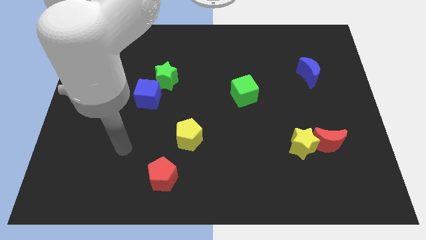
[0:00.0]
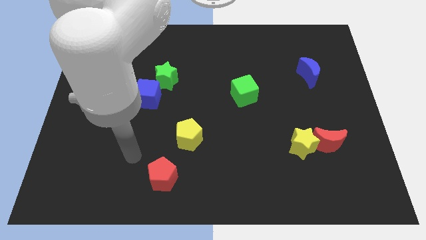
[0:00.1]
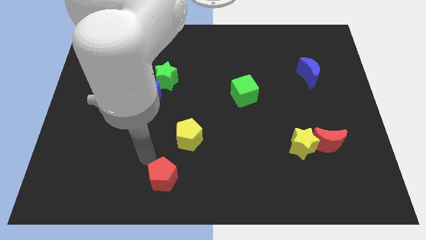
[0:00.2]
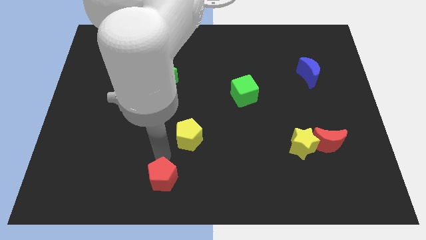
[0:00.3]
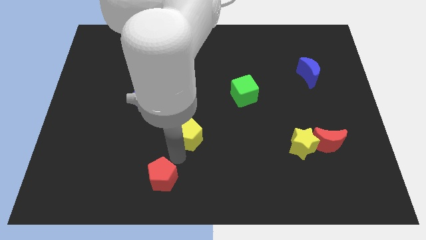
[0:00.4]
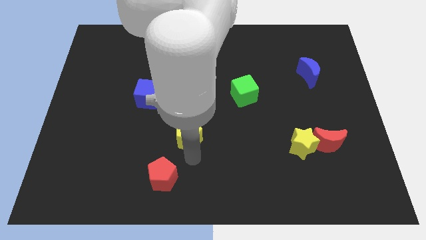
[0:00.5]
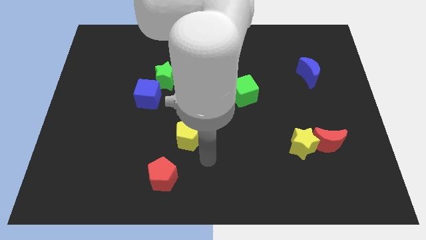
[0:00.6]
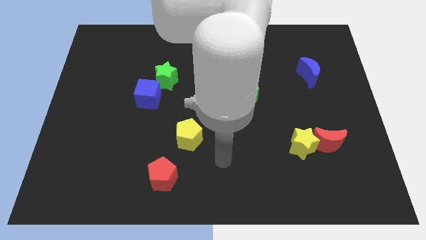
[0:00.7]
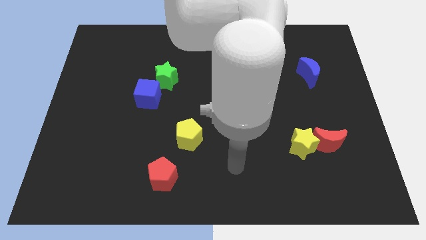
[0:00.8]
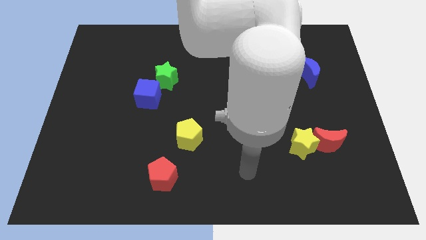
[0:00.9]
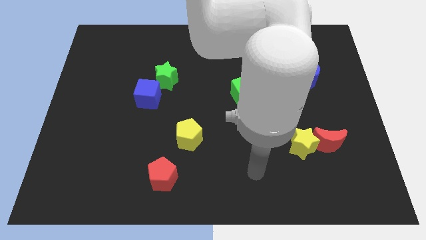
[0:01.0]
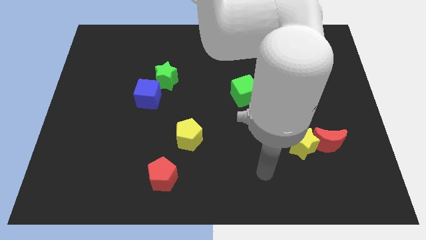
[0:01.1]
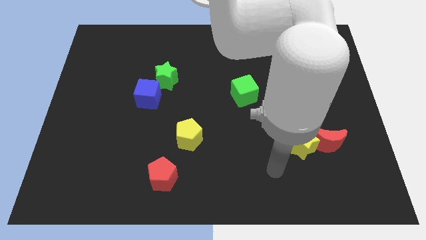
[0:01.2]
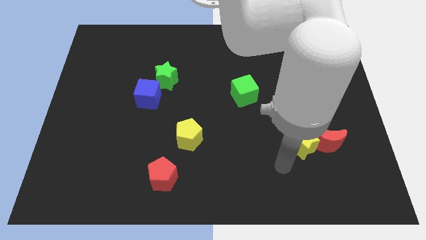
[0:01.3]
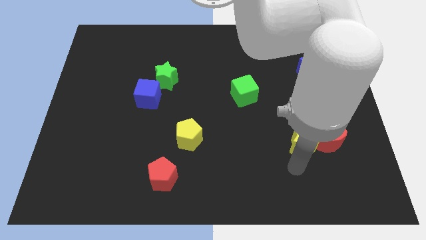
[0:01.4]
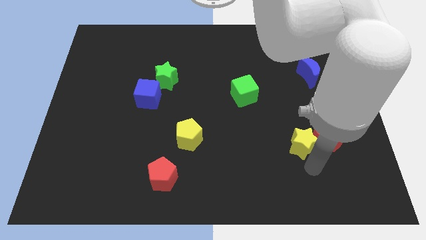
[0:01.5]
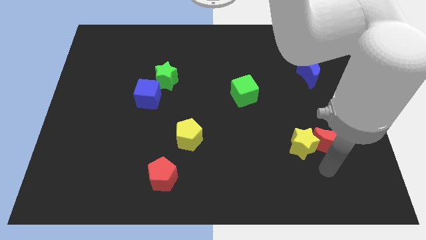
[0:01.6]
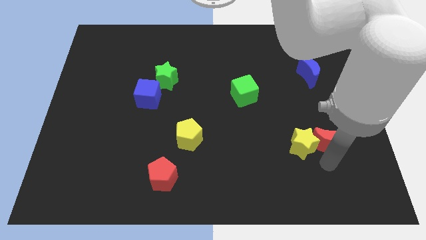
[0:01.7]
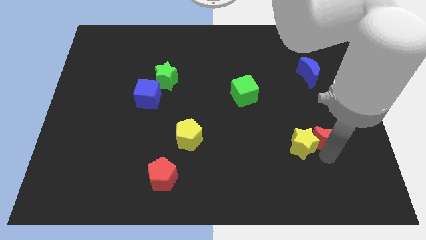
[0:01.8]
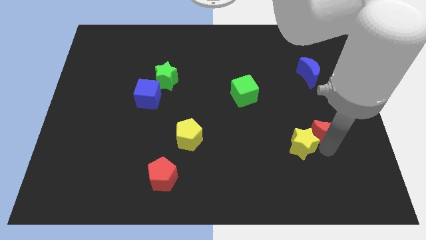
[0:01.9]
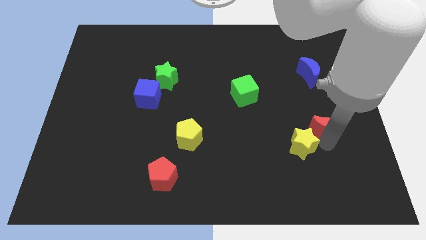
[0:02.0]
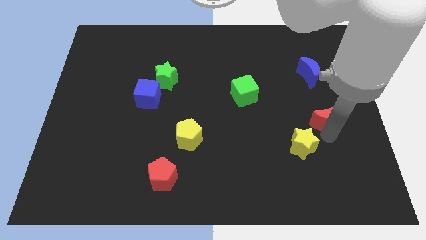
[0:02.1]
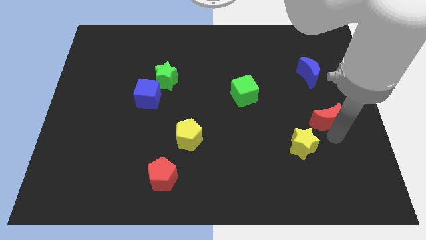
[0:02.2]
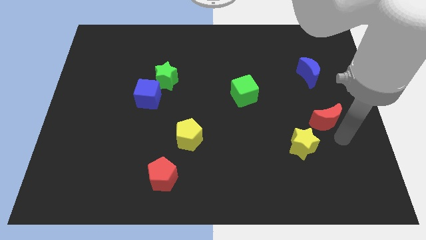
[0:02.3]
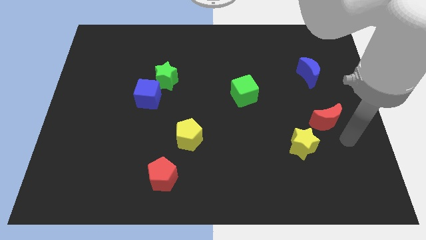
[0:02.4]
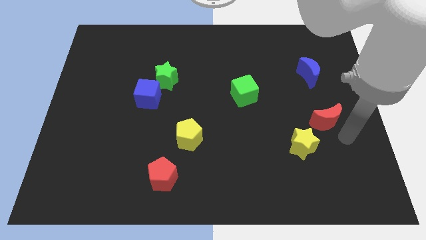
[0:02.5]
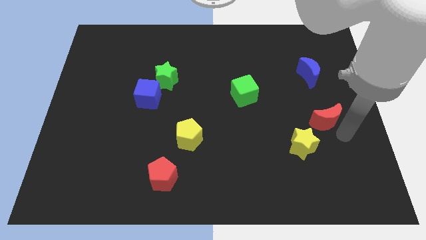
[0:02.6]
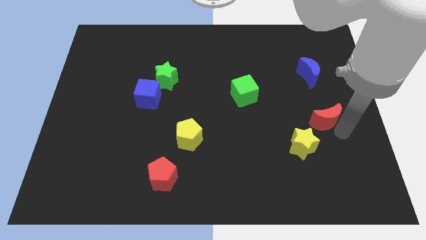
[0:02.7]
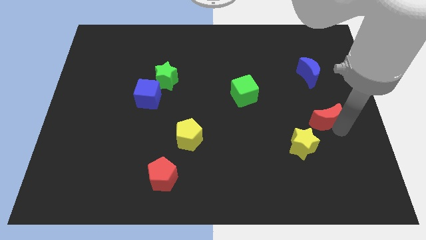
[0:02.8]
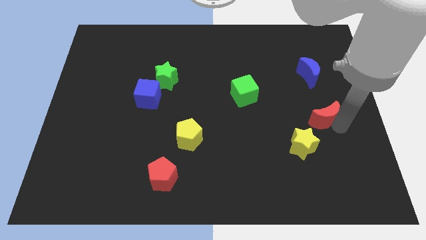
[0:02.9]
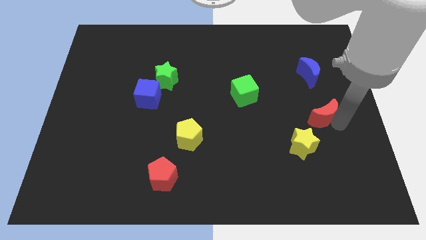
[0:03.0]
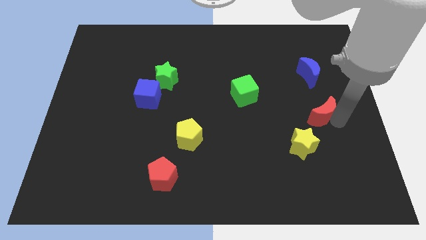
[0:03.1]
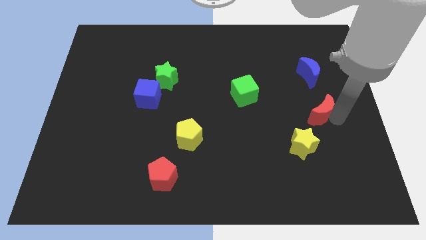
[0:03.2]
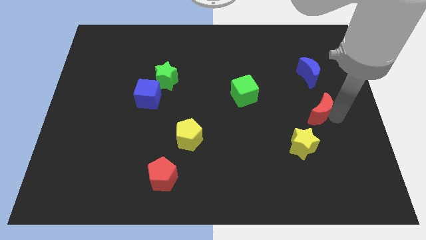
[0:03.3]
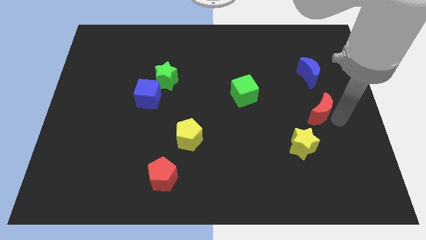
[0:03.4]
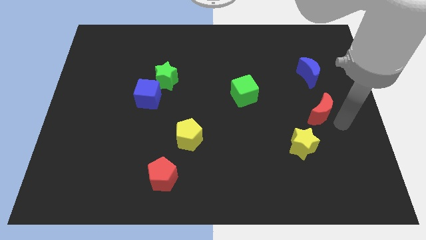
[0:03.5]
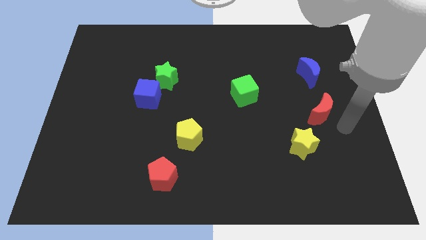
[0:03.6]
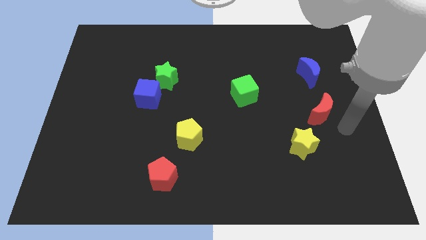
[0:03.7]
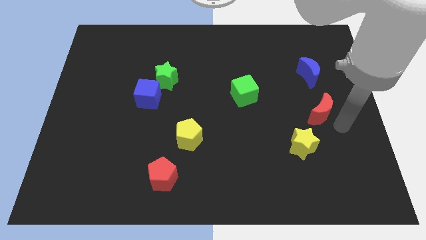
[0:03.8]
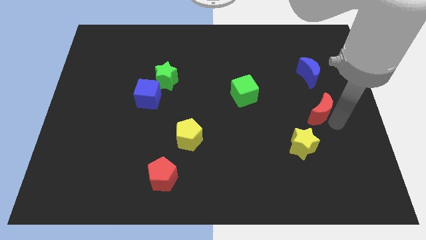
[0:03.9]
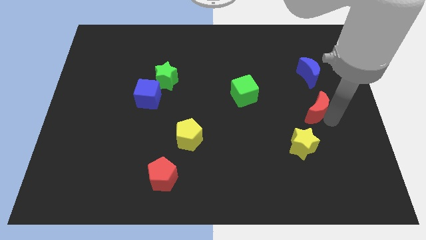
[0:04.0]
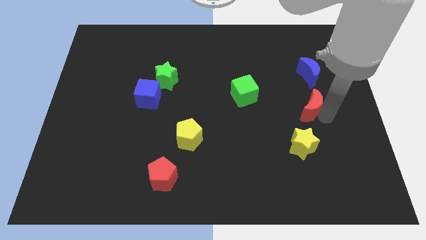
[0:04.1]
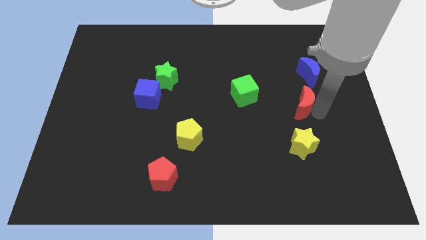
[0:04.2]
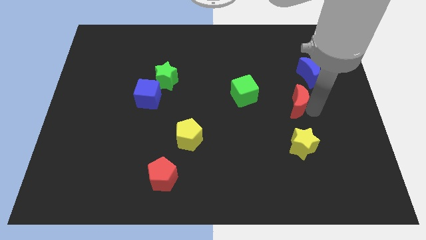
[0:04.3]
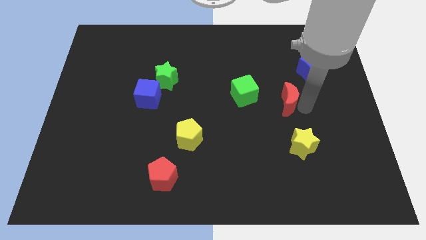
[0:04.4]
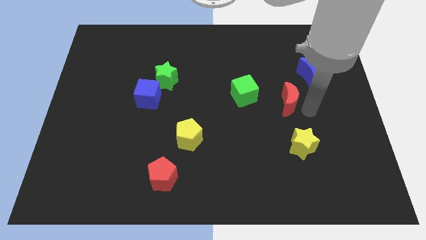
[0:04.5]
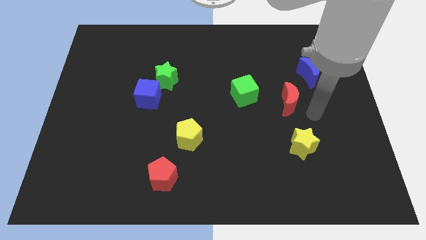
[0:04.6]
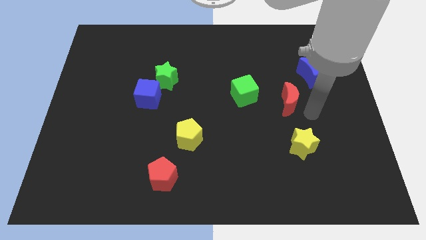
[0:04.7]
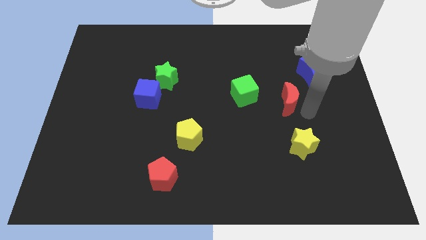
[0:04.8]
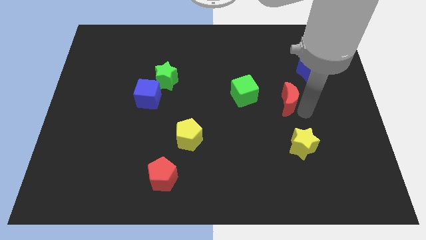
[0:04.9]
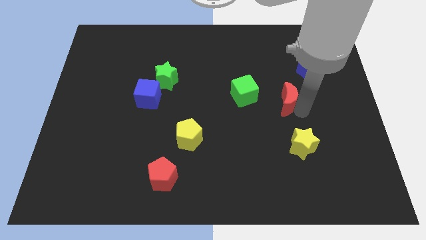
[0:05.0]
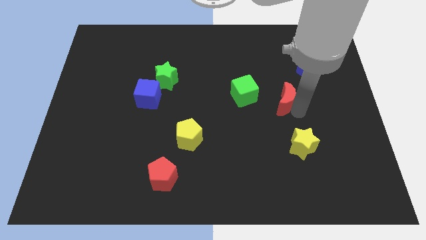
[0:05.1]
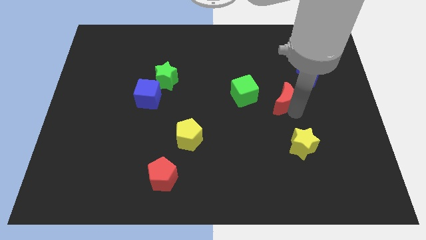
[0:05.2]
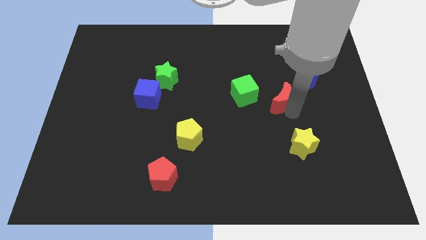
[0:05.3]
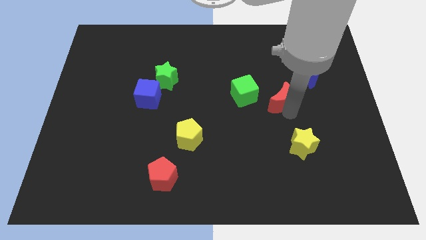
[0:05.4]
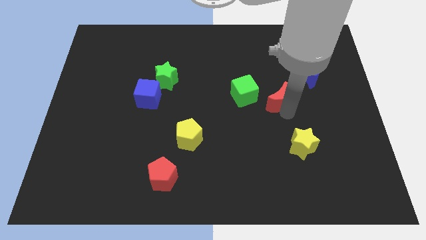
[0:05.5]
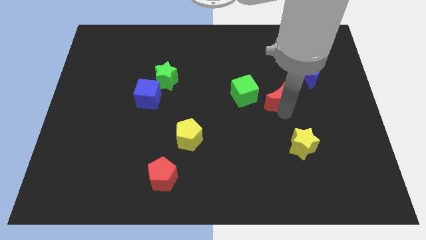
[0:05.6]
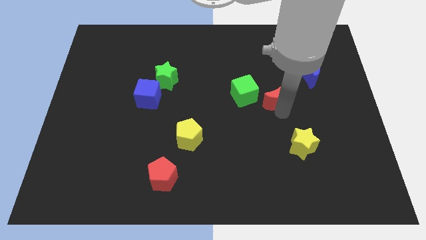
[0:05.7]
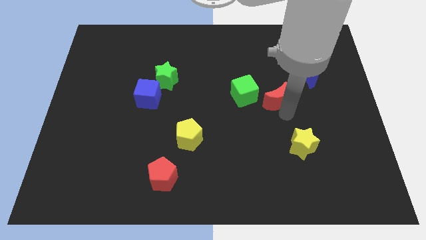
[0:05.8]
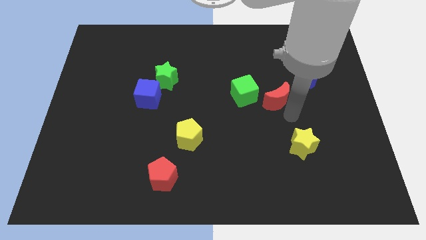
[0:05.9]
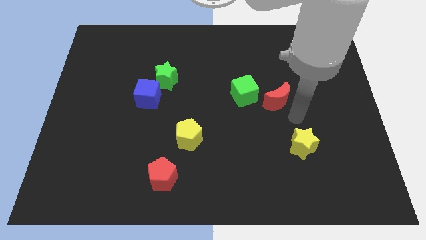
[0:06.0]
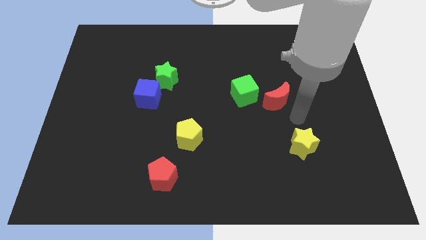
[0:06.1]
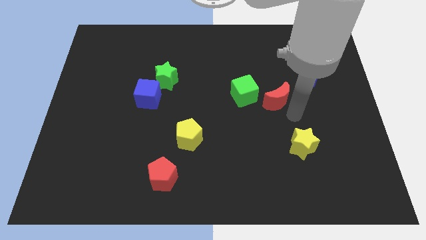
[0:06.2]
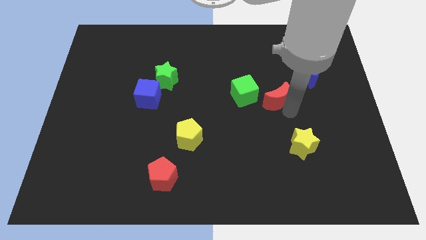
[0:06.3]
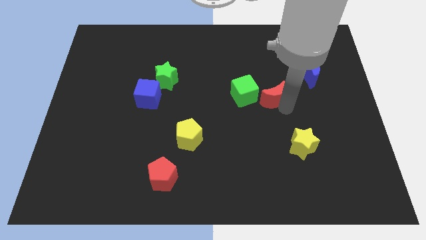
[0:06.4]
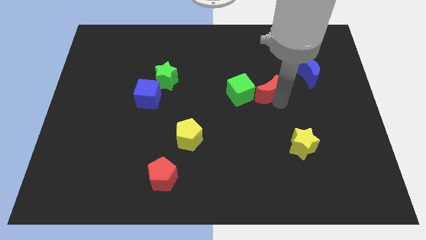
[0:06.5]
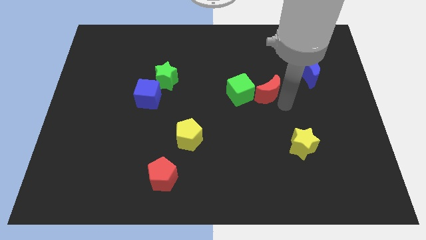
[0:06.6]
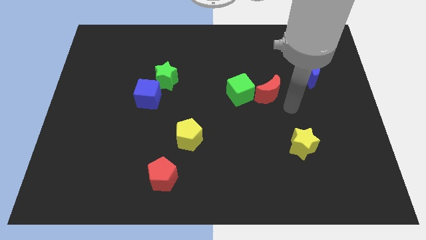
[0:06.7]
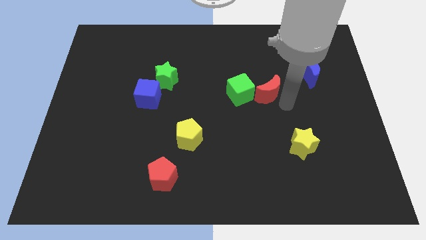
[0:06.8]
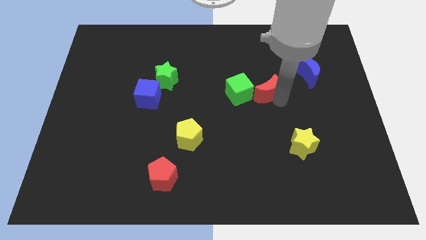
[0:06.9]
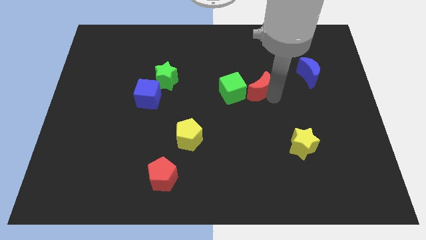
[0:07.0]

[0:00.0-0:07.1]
slide the red moon up and to the left diagonally

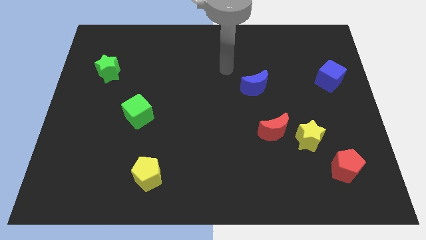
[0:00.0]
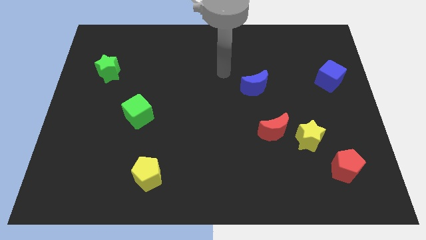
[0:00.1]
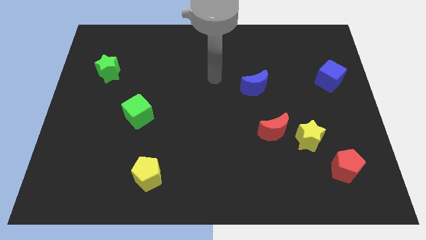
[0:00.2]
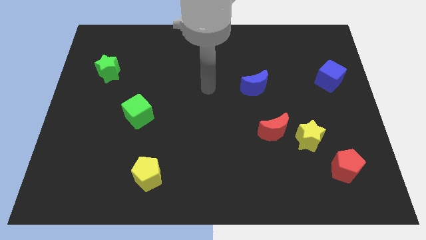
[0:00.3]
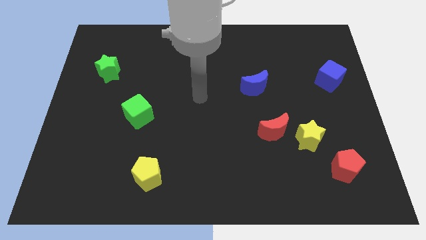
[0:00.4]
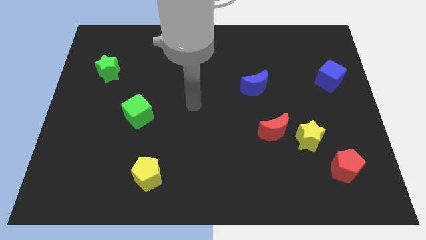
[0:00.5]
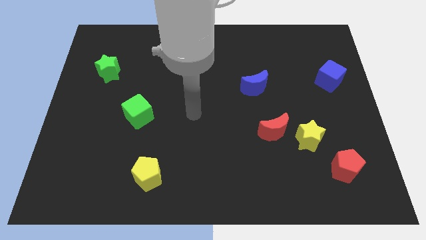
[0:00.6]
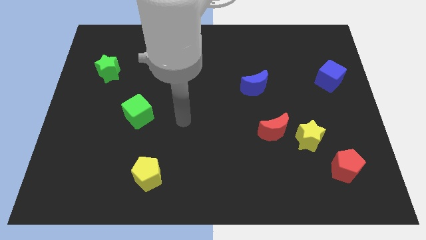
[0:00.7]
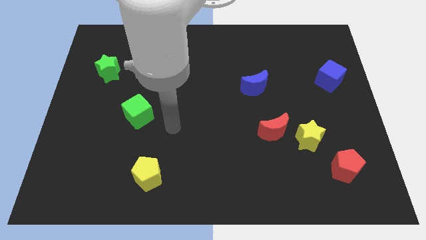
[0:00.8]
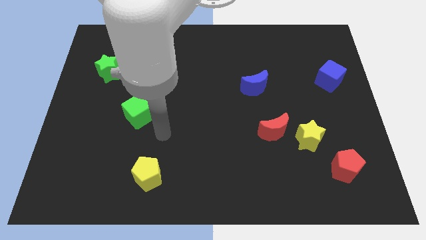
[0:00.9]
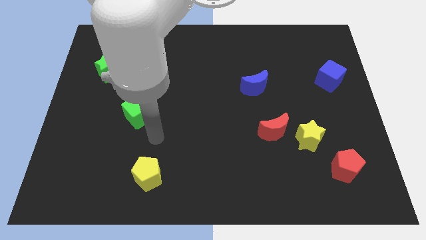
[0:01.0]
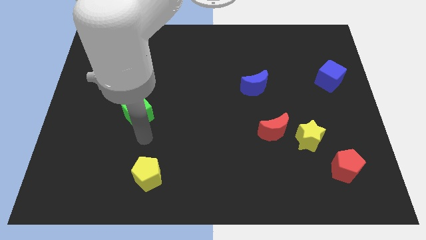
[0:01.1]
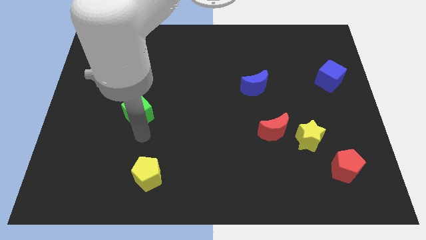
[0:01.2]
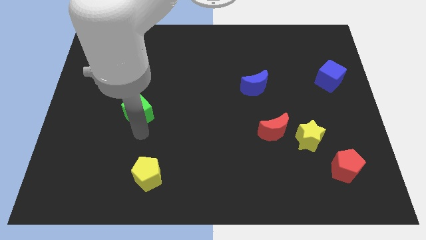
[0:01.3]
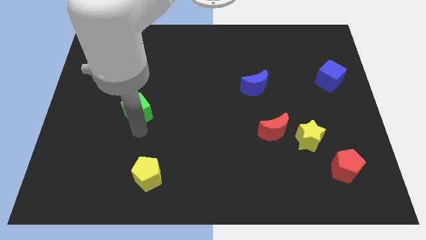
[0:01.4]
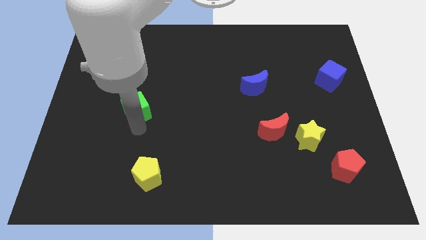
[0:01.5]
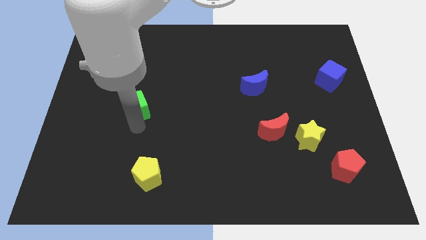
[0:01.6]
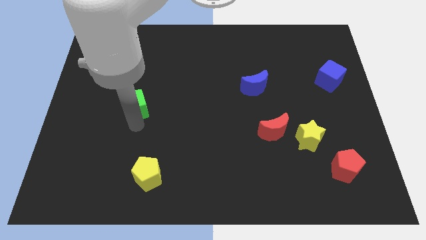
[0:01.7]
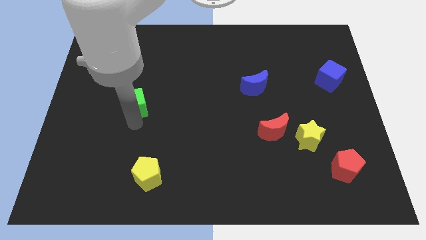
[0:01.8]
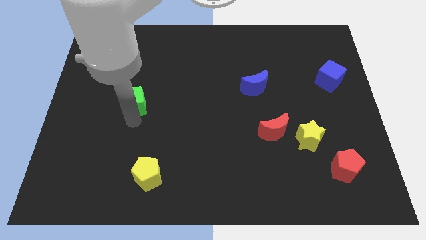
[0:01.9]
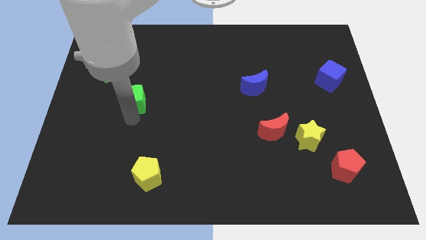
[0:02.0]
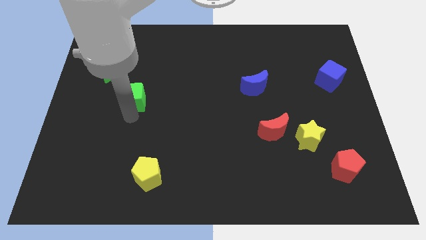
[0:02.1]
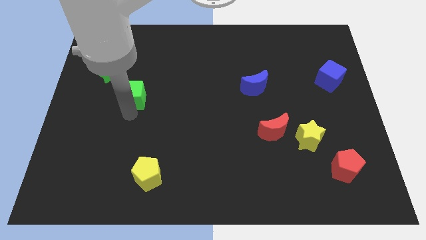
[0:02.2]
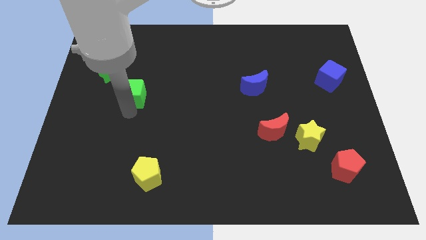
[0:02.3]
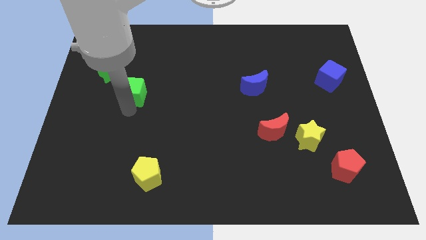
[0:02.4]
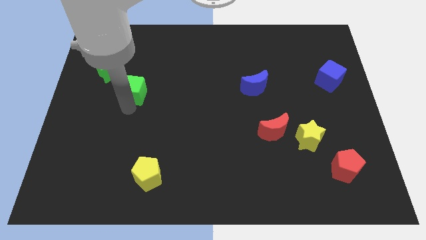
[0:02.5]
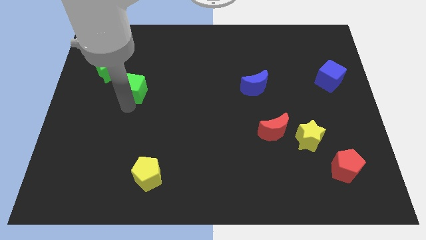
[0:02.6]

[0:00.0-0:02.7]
slide the green cube a little bit upwards
